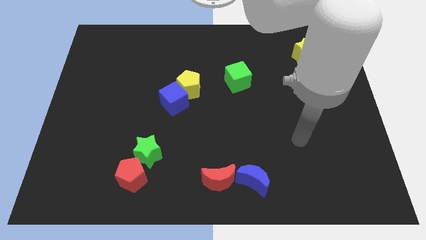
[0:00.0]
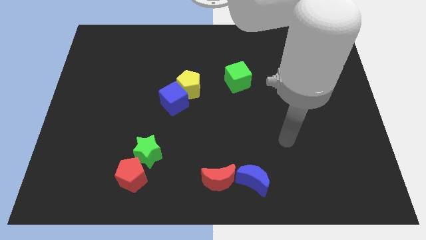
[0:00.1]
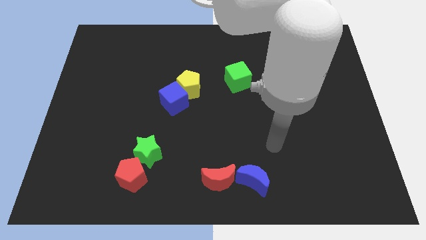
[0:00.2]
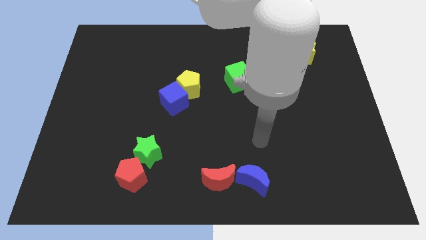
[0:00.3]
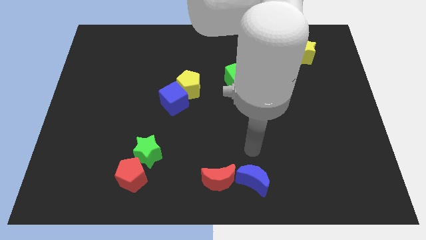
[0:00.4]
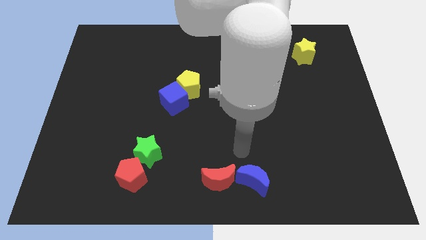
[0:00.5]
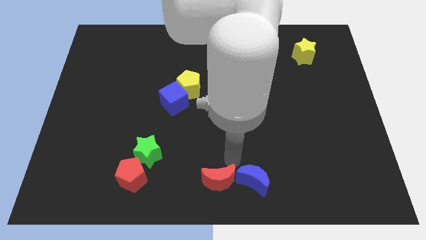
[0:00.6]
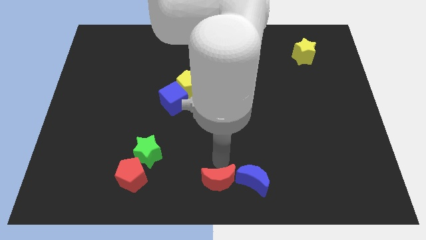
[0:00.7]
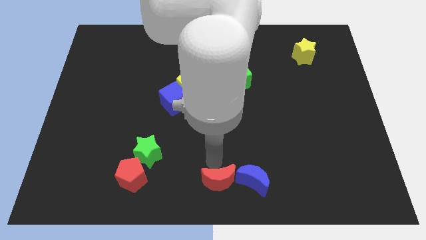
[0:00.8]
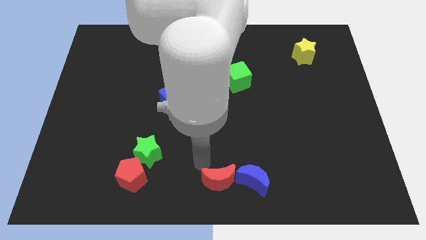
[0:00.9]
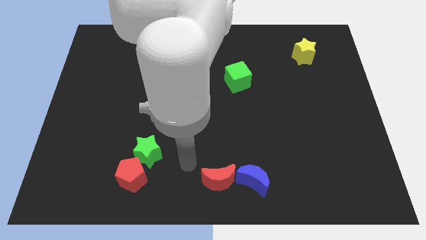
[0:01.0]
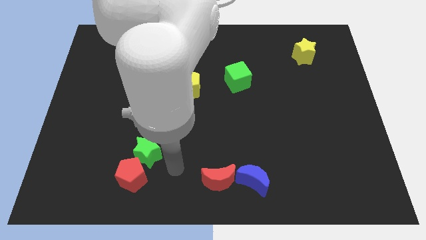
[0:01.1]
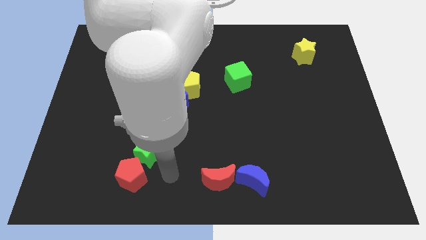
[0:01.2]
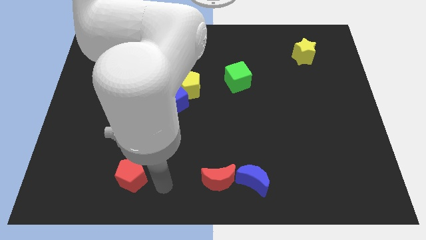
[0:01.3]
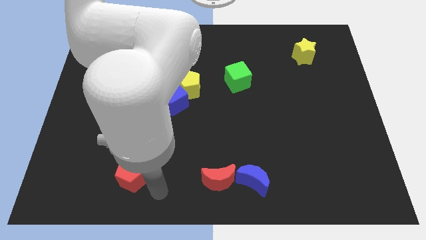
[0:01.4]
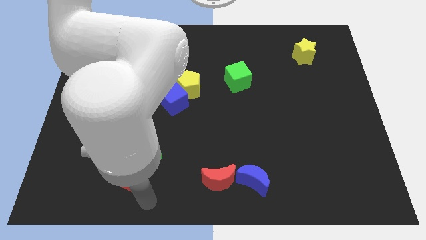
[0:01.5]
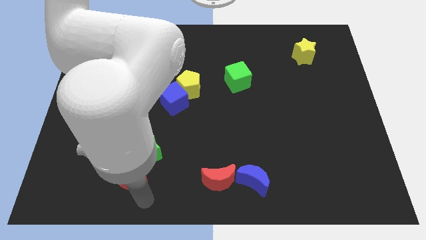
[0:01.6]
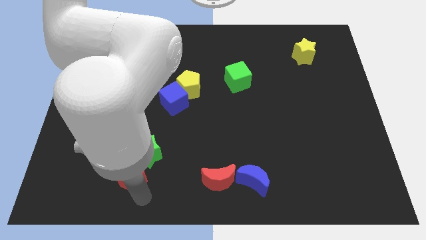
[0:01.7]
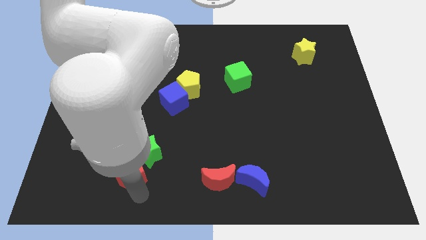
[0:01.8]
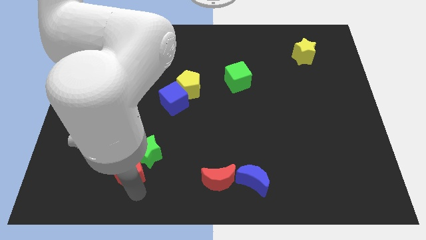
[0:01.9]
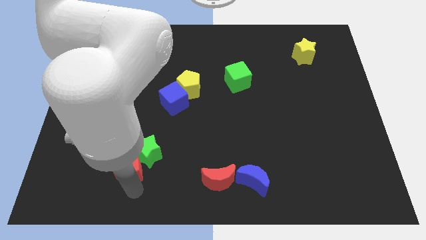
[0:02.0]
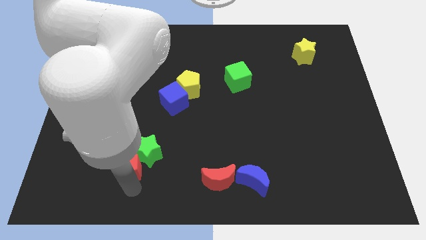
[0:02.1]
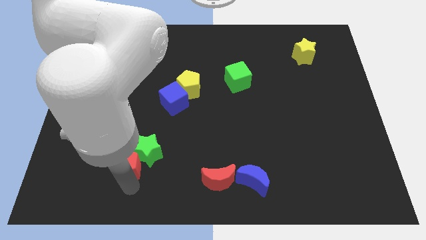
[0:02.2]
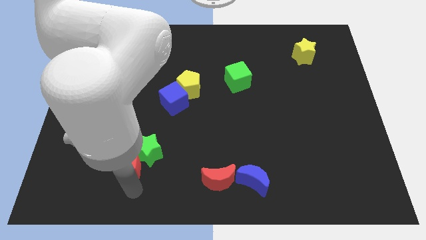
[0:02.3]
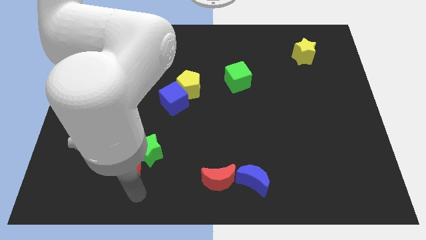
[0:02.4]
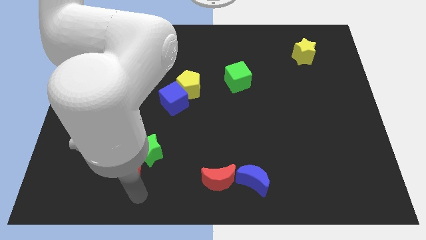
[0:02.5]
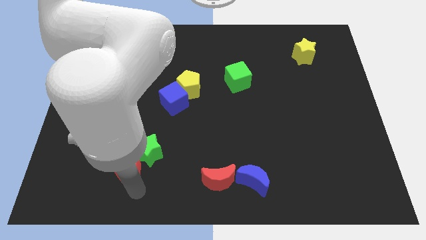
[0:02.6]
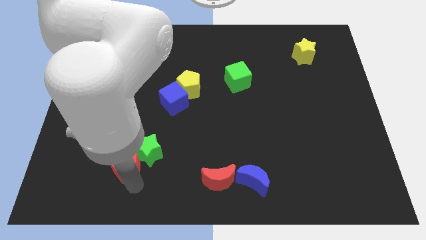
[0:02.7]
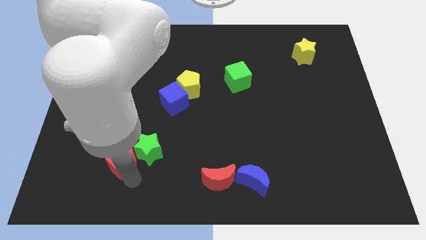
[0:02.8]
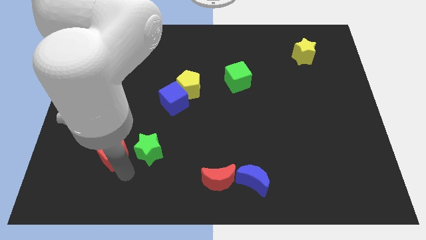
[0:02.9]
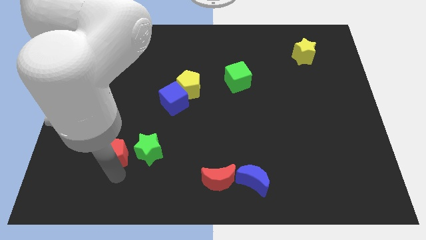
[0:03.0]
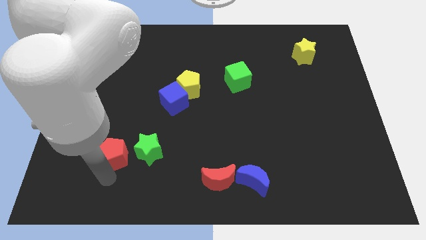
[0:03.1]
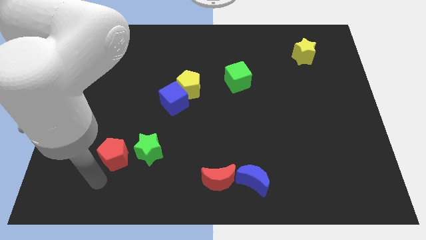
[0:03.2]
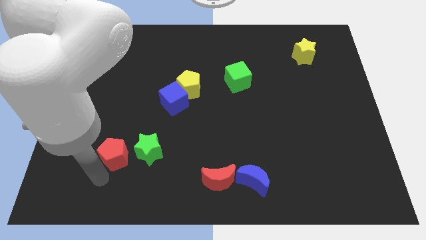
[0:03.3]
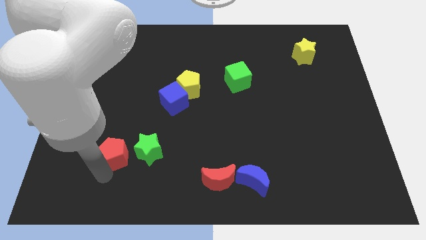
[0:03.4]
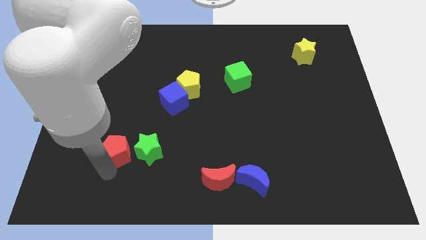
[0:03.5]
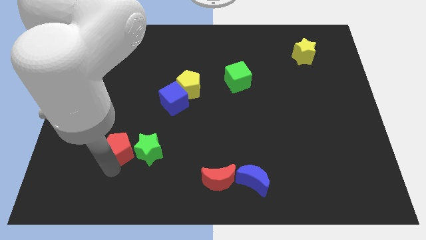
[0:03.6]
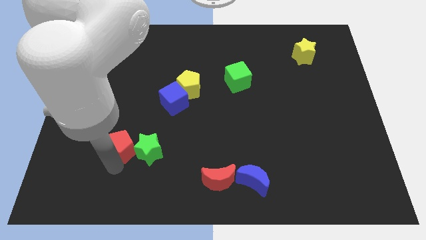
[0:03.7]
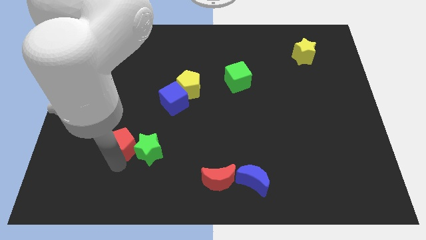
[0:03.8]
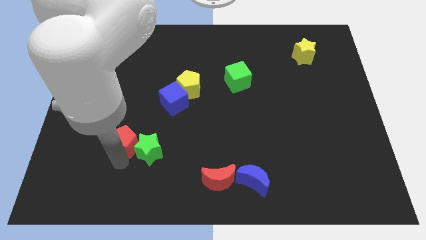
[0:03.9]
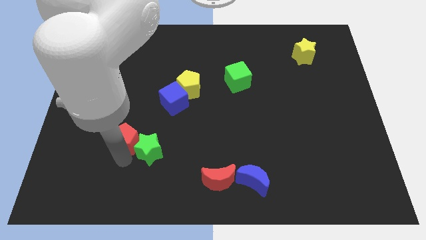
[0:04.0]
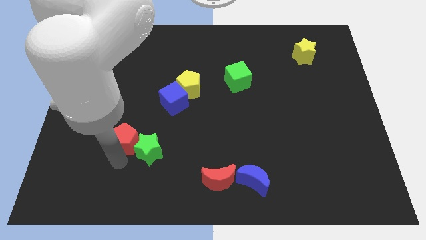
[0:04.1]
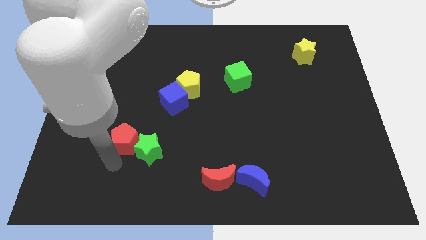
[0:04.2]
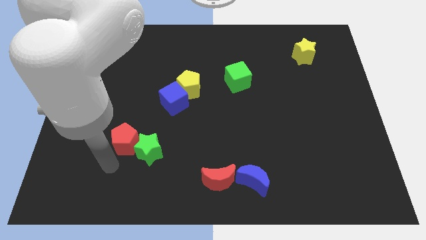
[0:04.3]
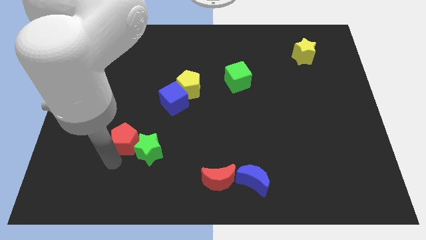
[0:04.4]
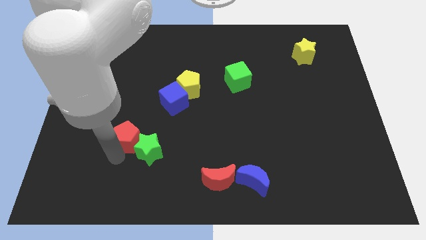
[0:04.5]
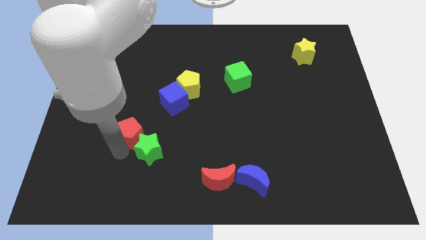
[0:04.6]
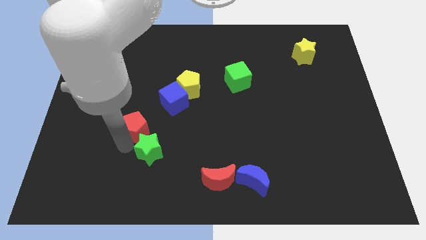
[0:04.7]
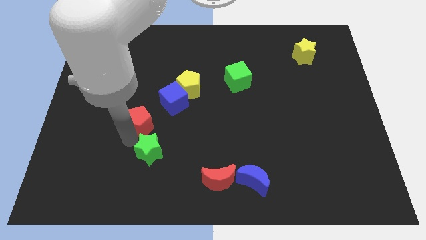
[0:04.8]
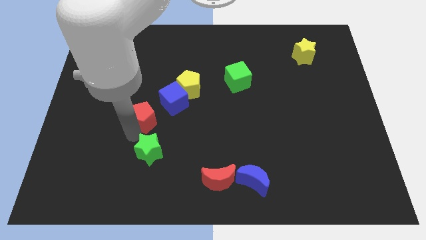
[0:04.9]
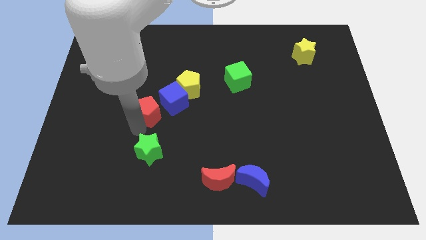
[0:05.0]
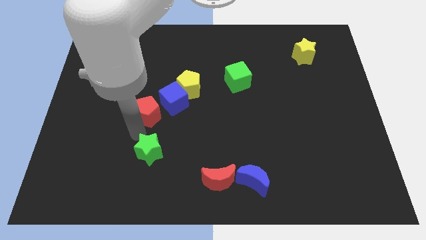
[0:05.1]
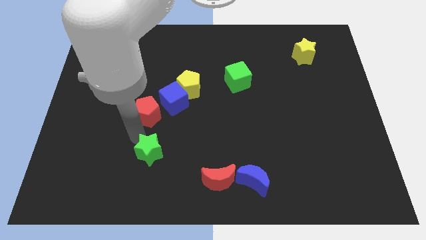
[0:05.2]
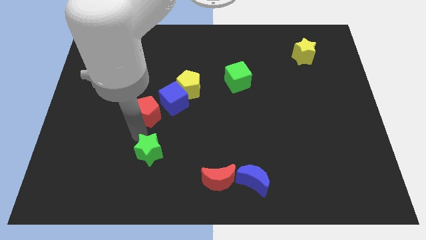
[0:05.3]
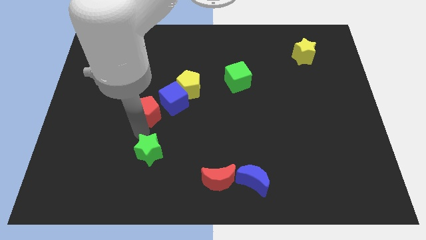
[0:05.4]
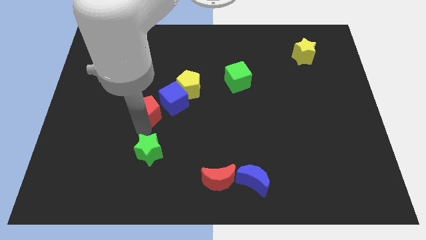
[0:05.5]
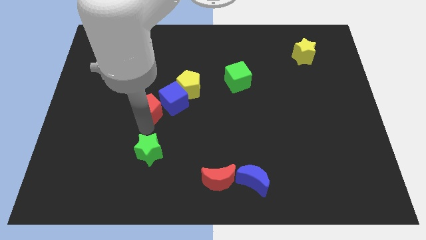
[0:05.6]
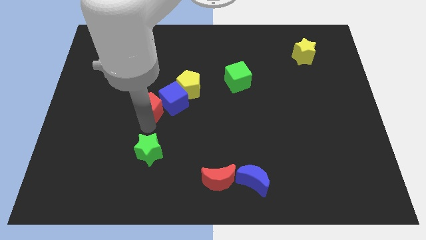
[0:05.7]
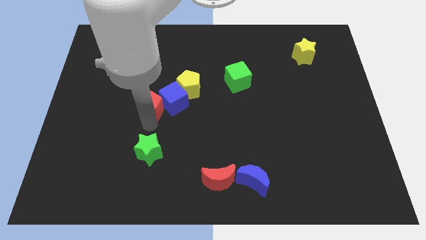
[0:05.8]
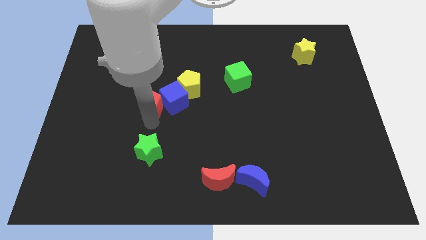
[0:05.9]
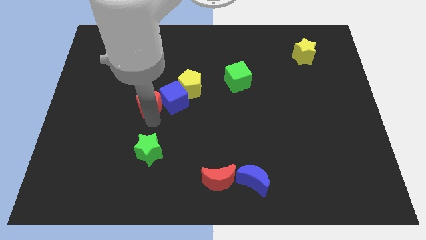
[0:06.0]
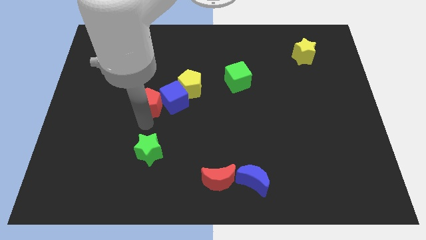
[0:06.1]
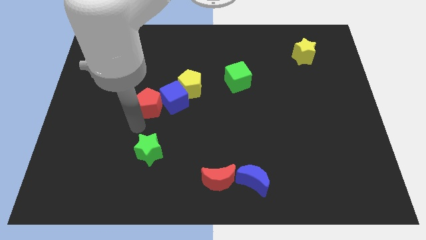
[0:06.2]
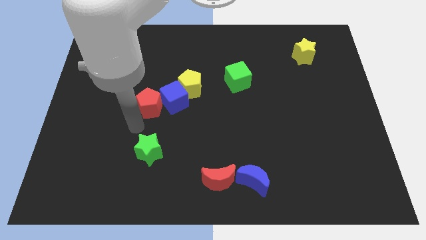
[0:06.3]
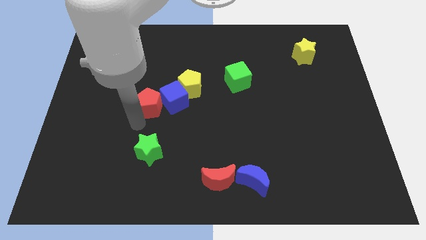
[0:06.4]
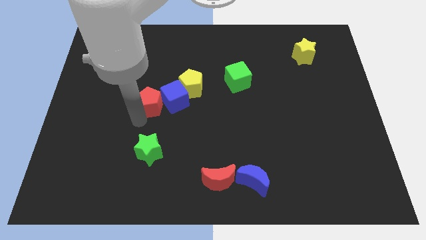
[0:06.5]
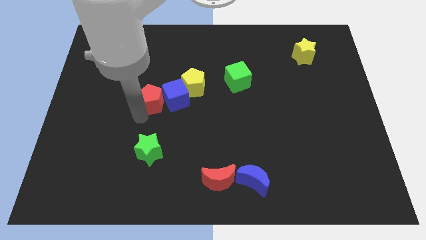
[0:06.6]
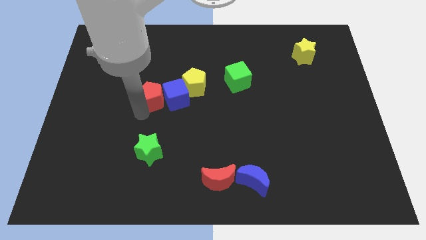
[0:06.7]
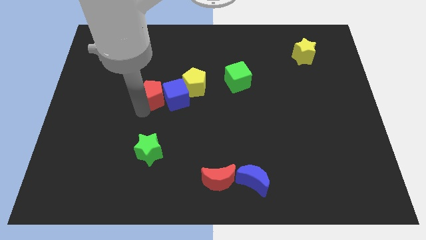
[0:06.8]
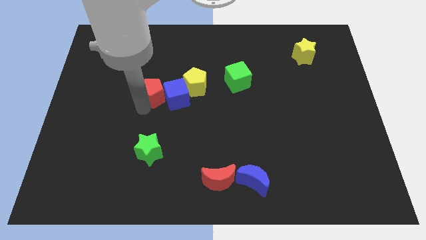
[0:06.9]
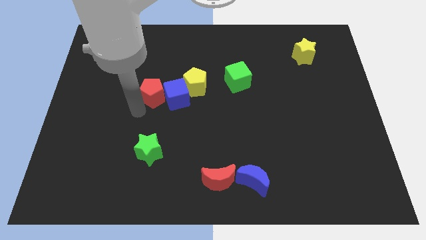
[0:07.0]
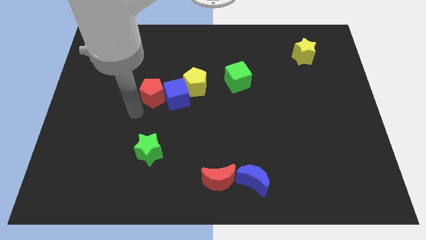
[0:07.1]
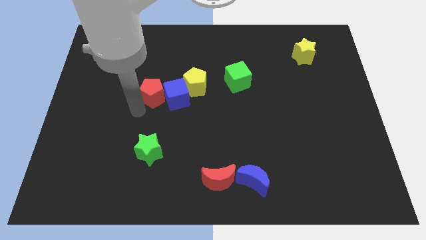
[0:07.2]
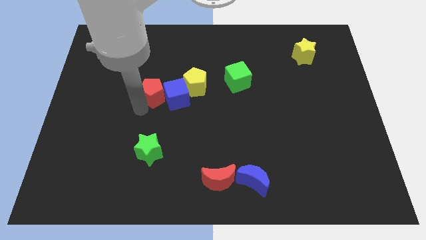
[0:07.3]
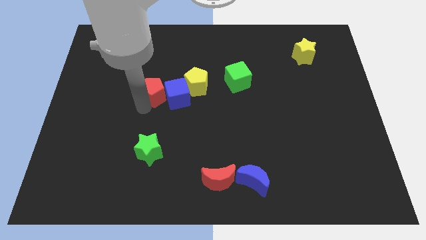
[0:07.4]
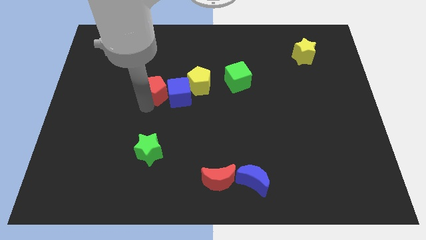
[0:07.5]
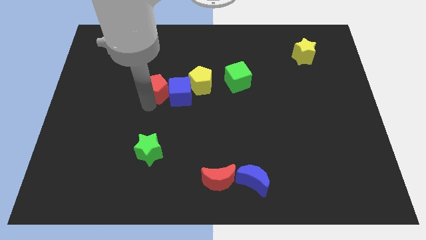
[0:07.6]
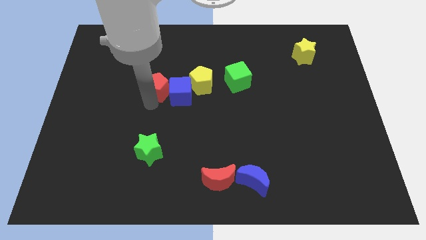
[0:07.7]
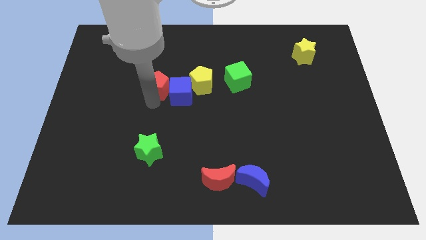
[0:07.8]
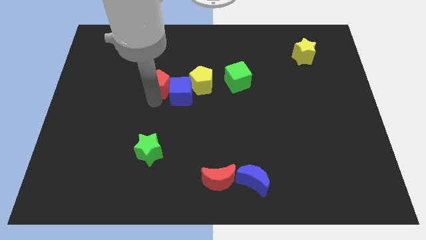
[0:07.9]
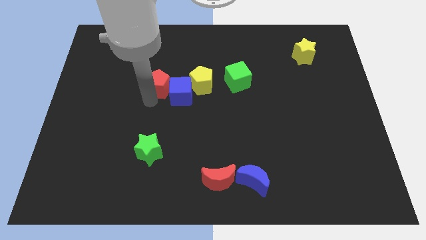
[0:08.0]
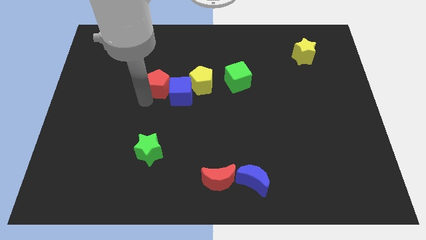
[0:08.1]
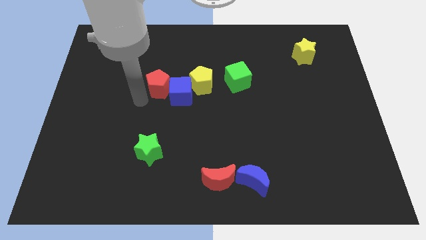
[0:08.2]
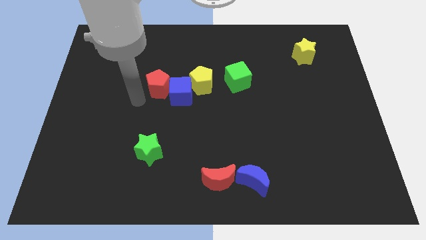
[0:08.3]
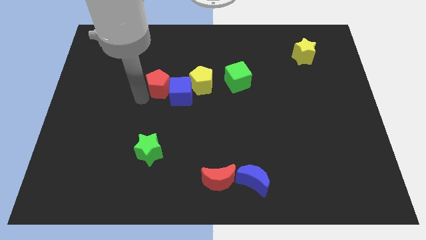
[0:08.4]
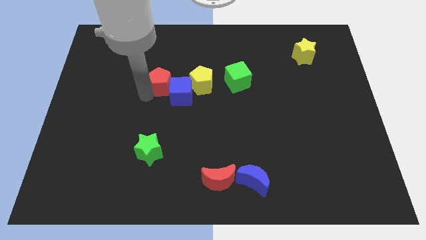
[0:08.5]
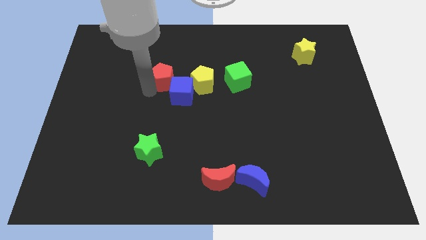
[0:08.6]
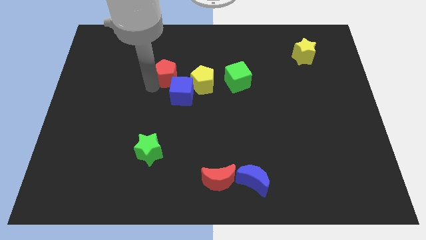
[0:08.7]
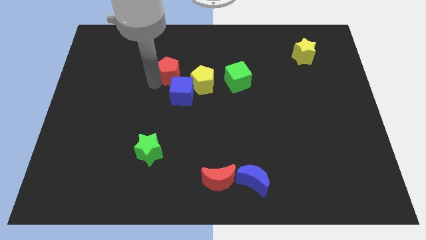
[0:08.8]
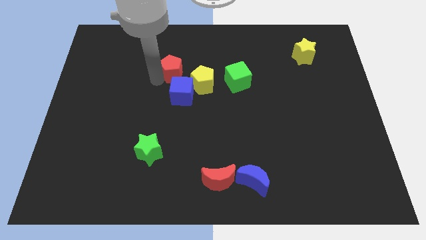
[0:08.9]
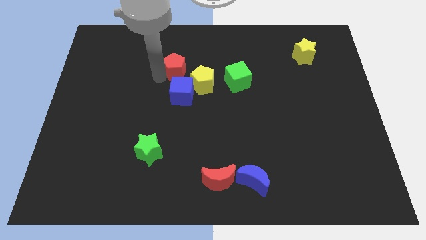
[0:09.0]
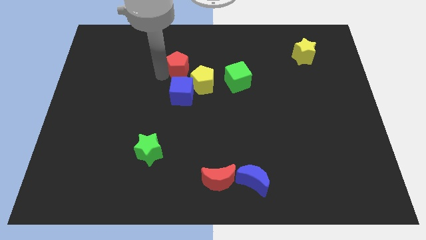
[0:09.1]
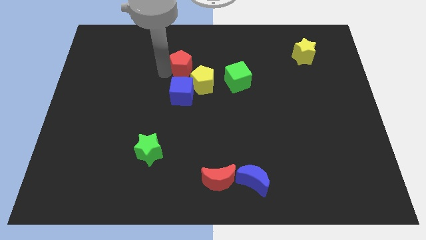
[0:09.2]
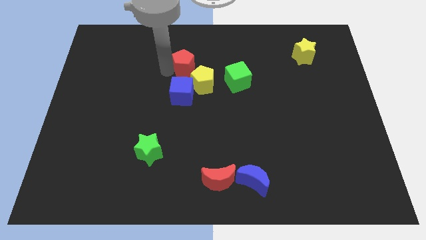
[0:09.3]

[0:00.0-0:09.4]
put the red pentagon to the top side of the yellow pentagon
